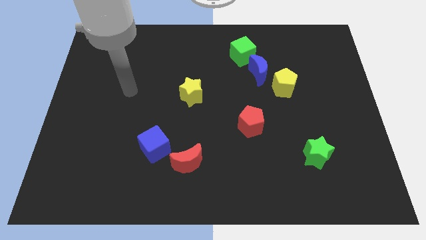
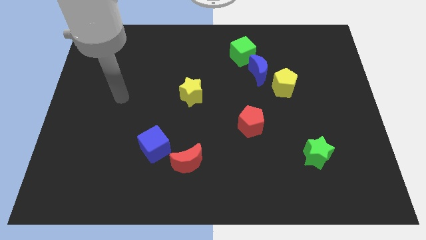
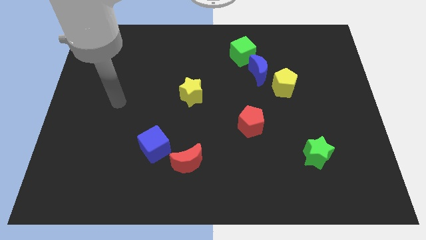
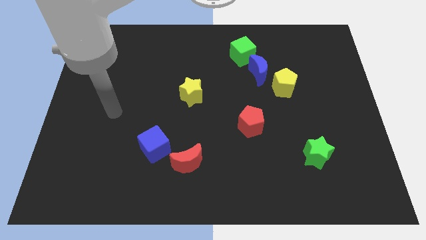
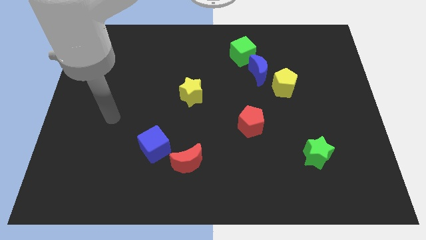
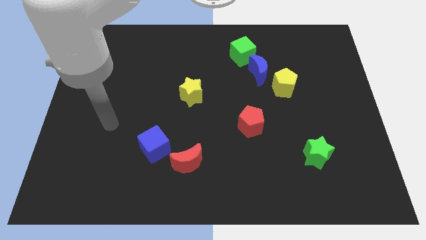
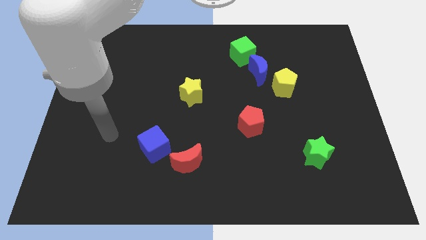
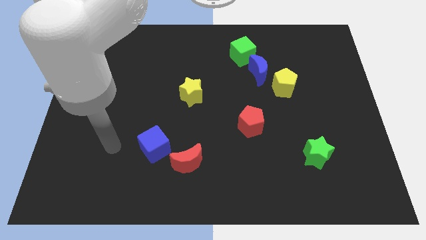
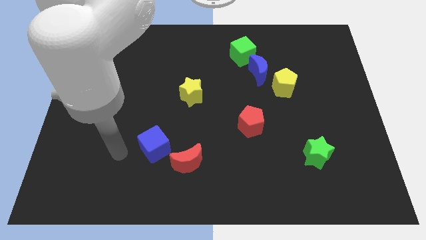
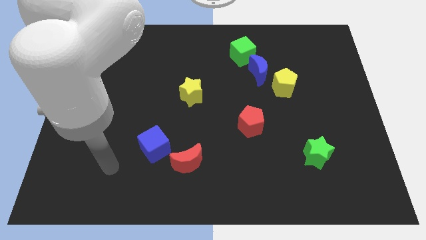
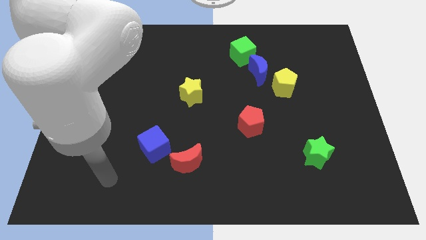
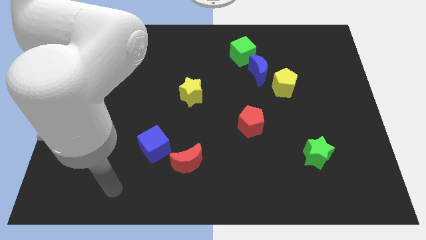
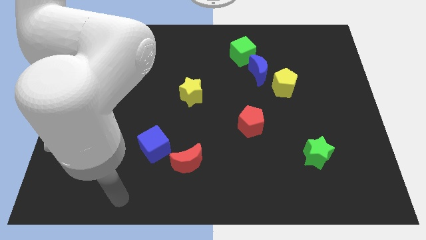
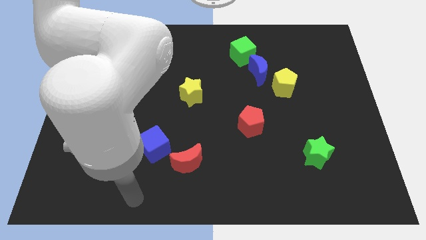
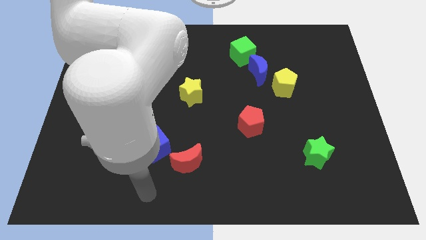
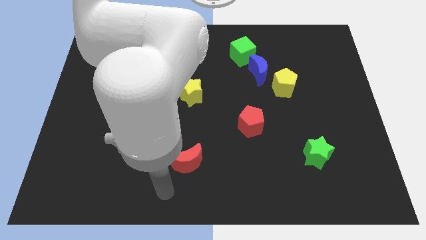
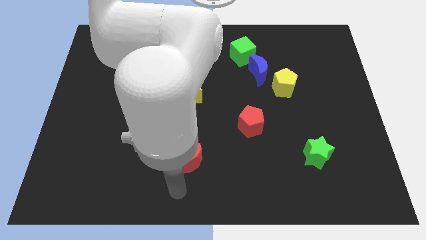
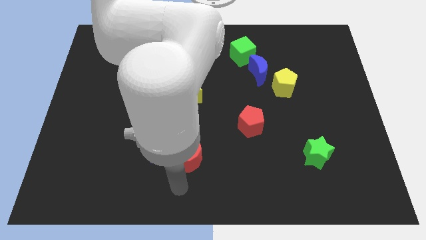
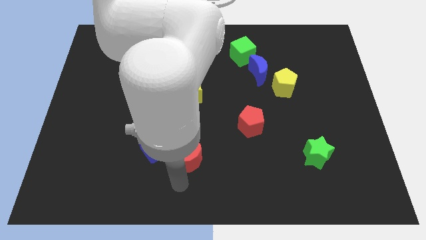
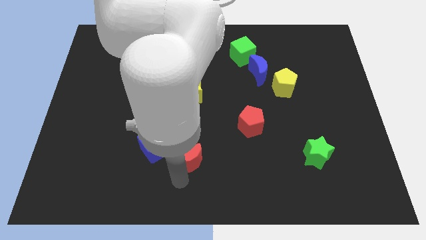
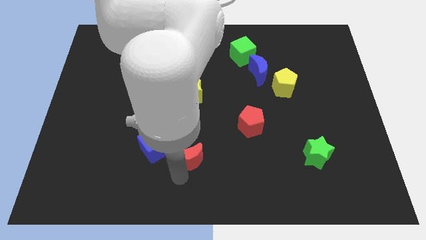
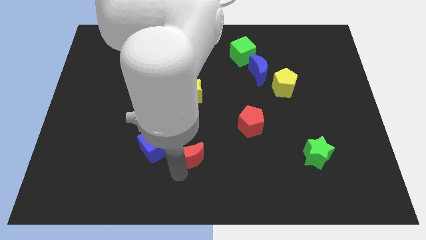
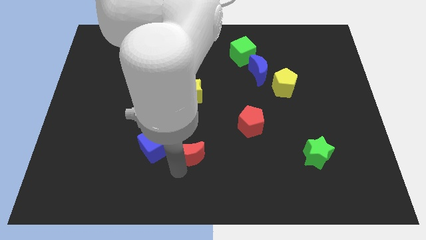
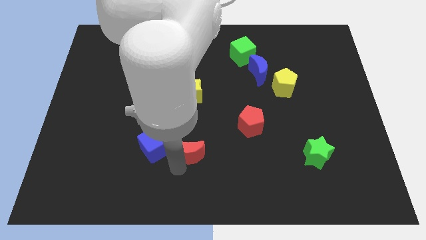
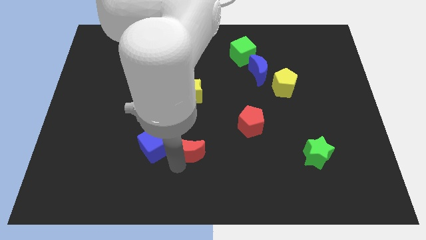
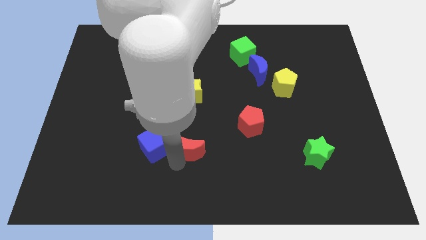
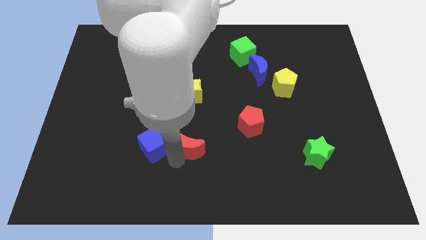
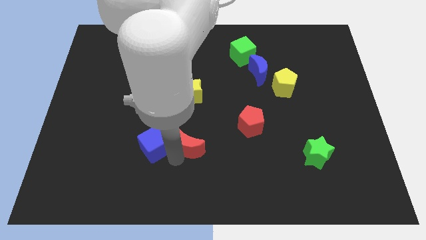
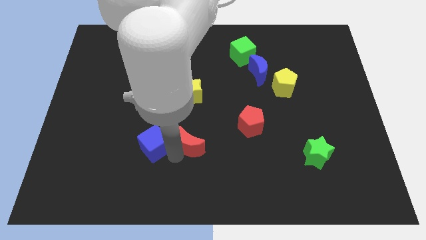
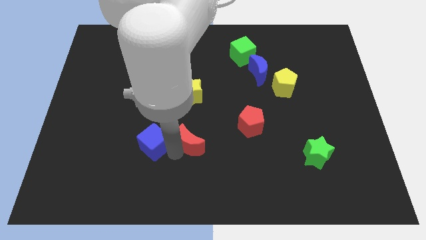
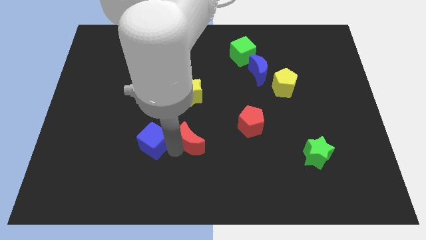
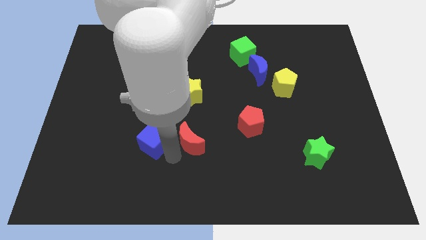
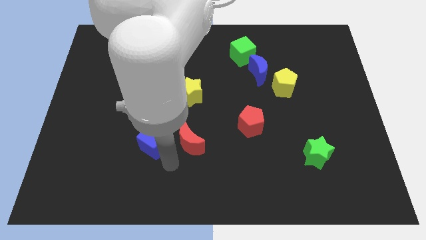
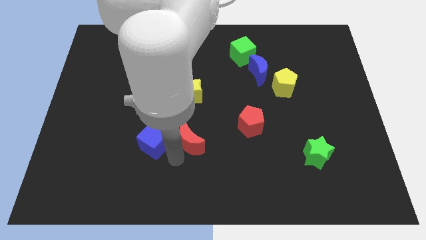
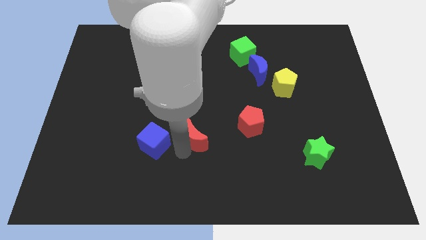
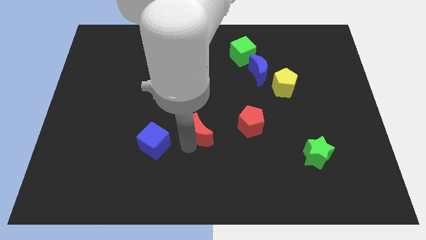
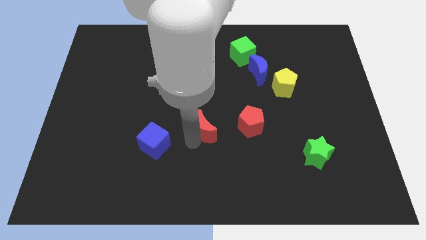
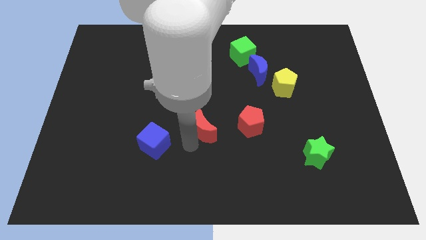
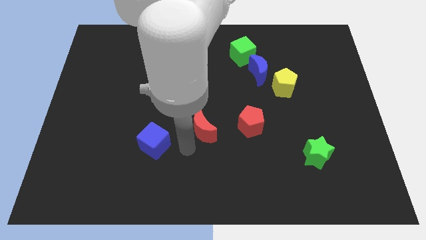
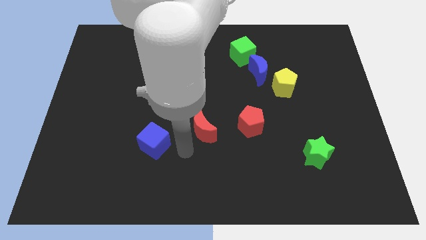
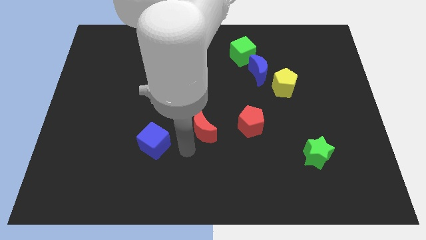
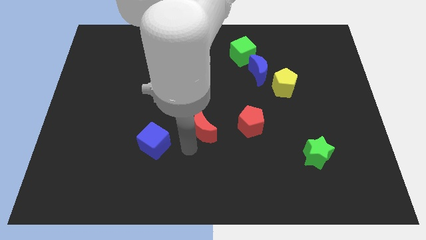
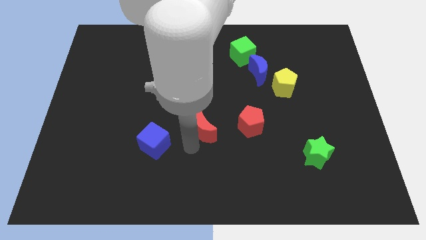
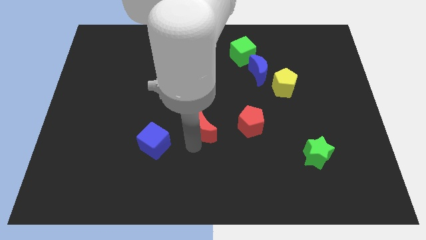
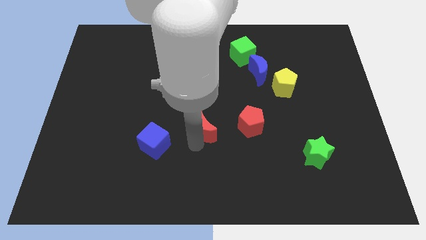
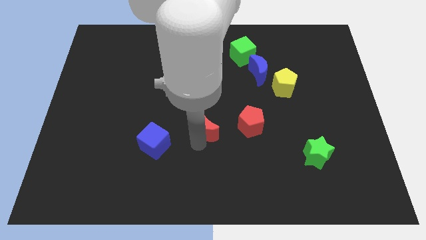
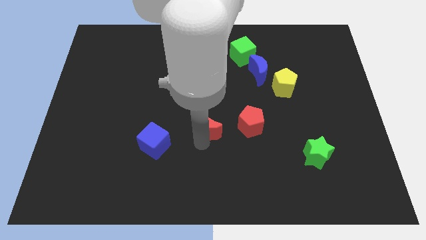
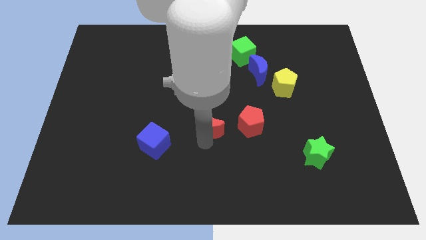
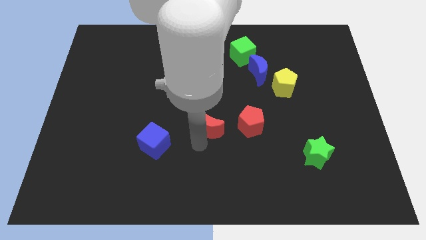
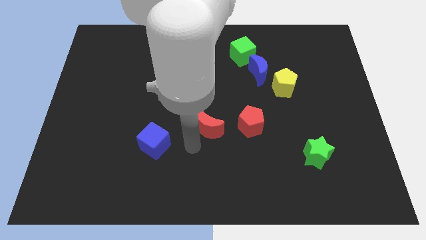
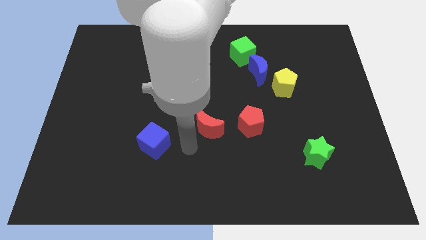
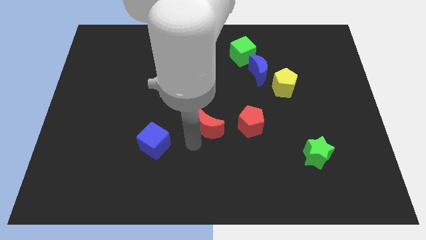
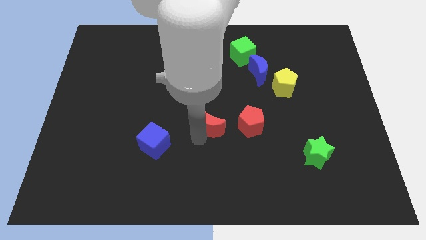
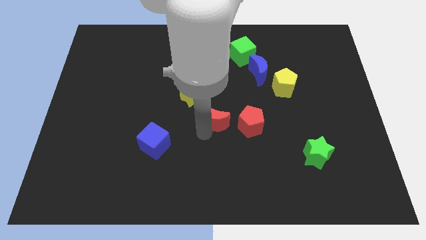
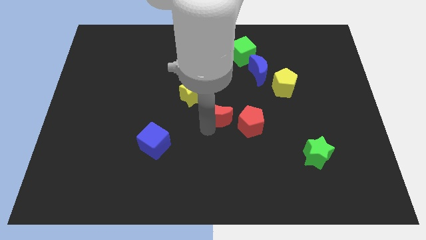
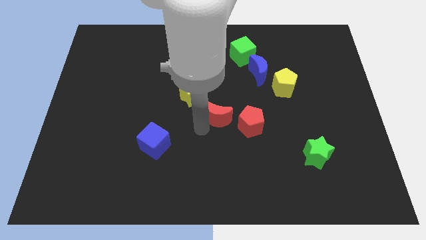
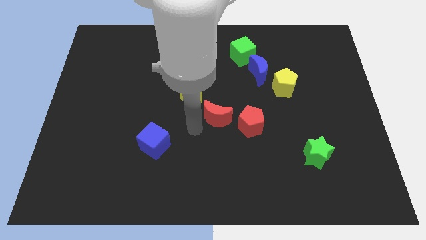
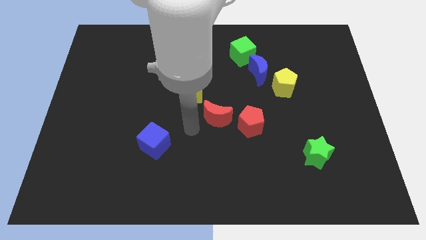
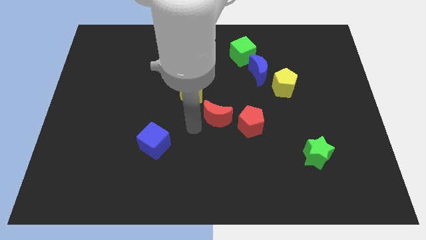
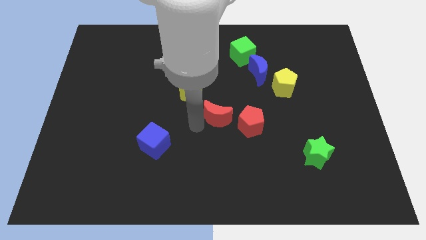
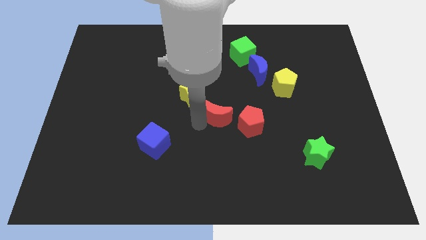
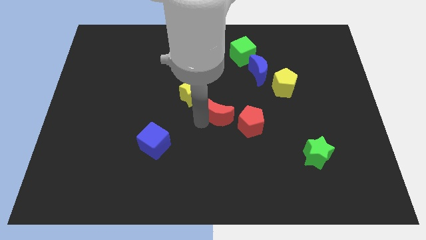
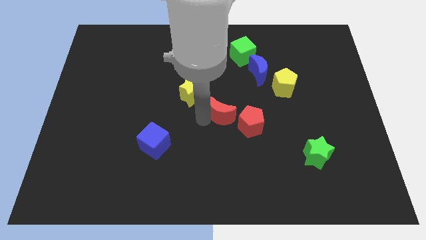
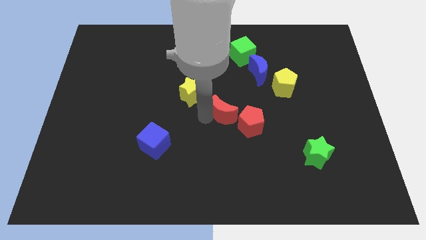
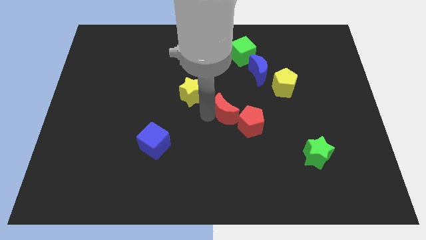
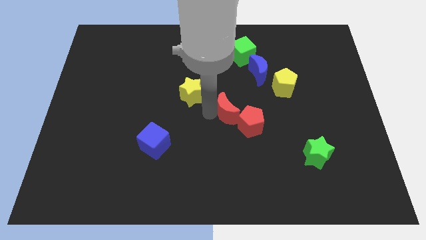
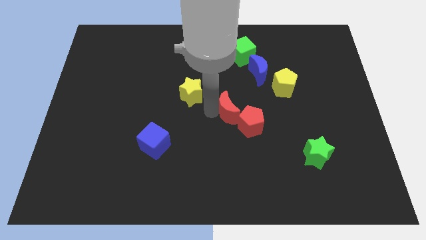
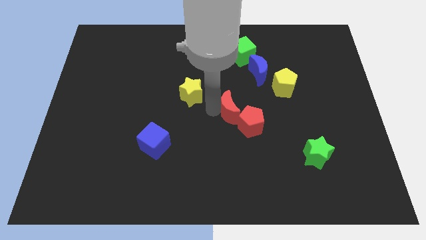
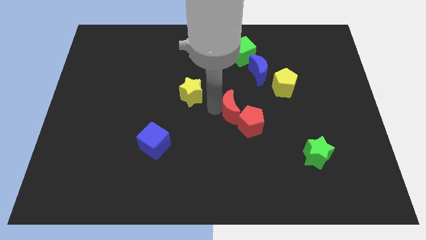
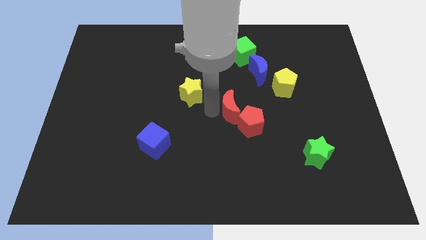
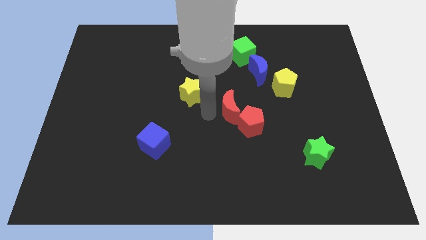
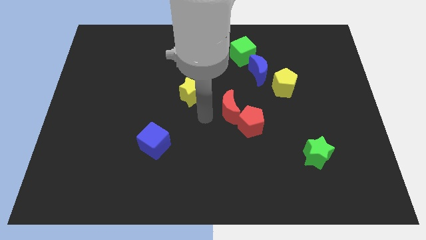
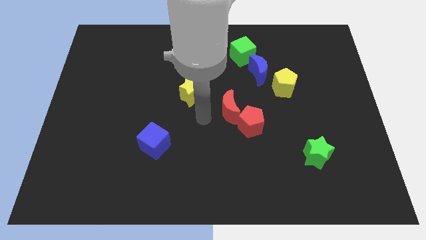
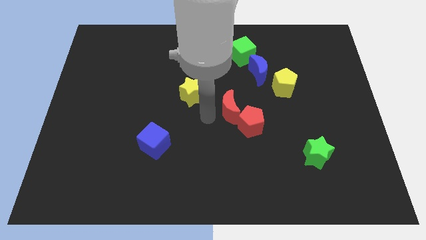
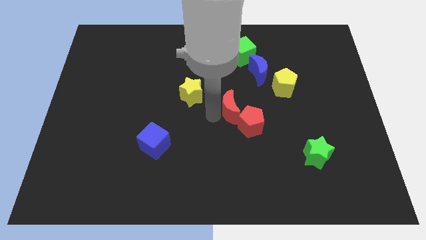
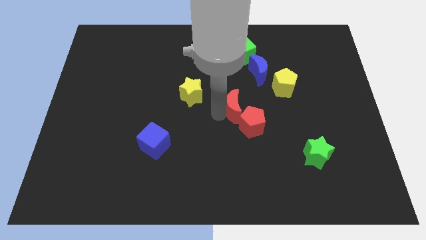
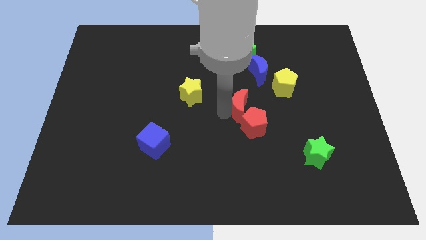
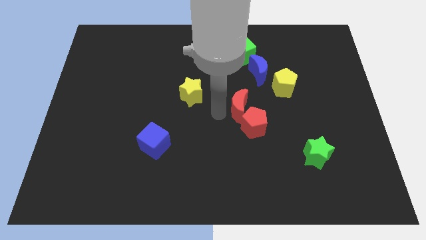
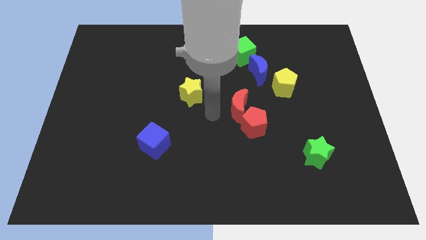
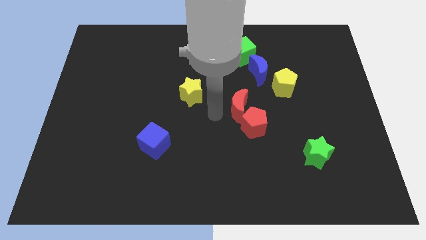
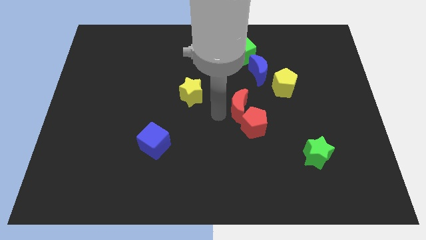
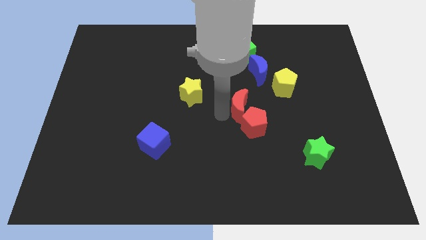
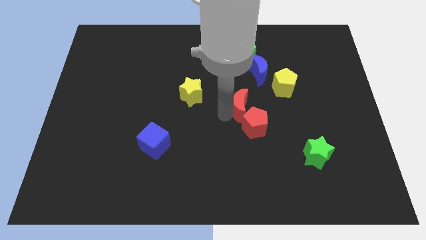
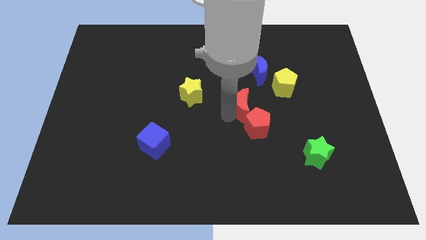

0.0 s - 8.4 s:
put the red moon to the bottom left side of the yellow pentagon
